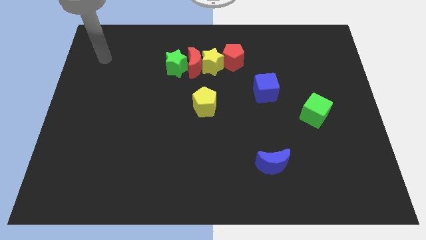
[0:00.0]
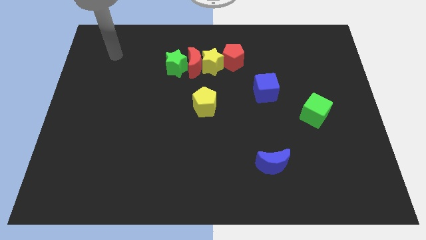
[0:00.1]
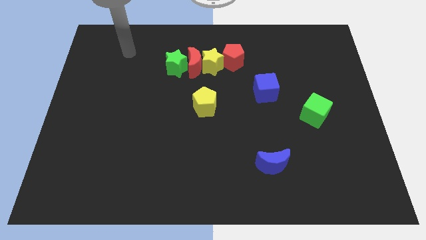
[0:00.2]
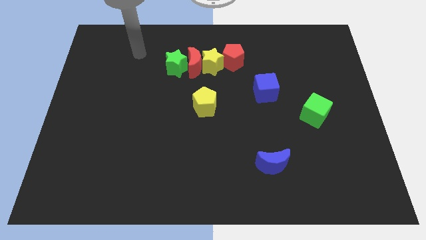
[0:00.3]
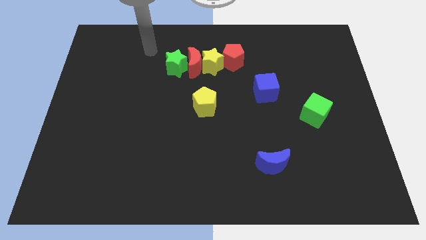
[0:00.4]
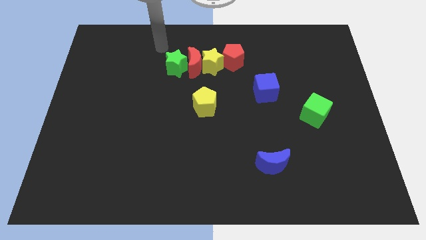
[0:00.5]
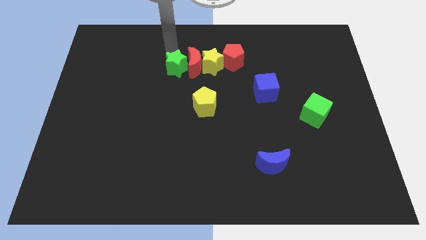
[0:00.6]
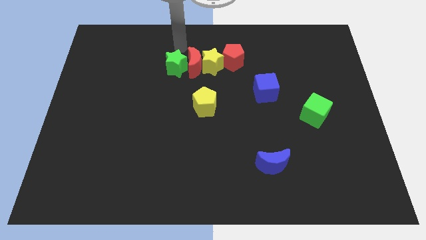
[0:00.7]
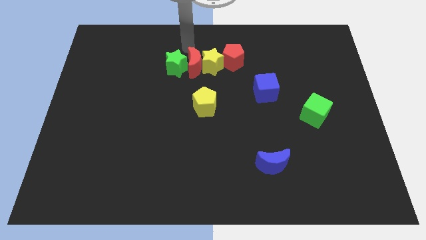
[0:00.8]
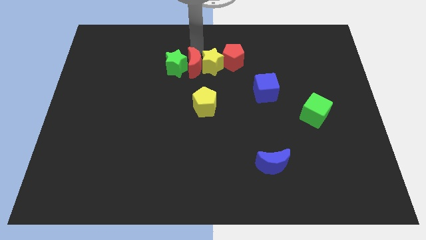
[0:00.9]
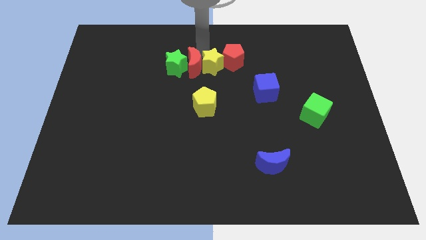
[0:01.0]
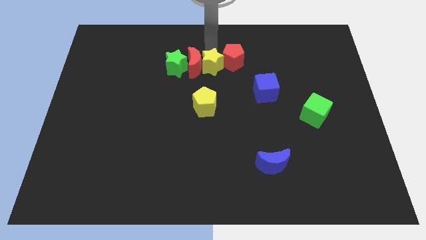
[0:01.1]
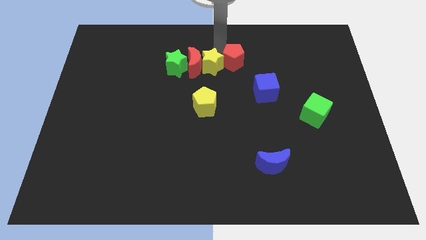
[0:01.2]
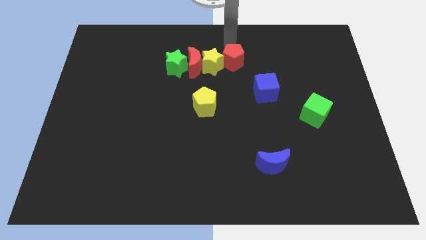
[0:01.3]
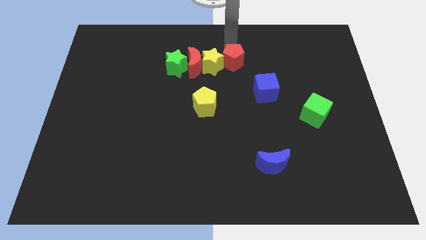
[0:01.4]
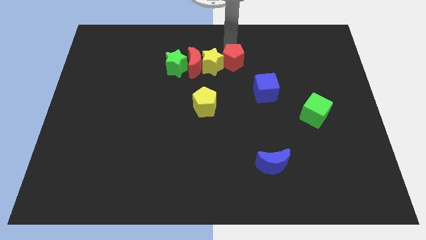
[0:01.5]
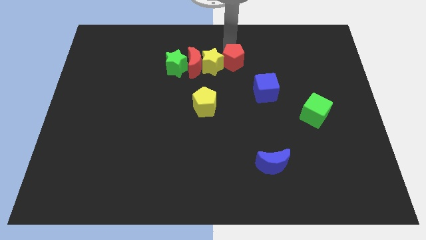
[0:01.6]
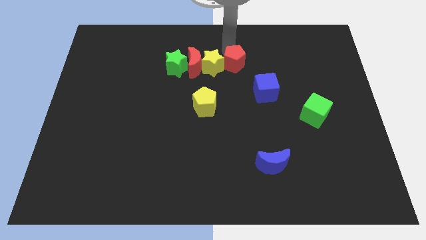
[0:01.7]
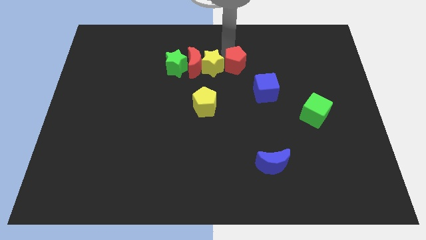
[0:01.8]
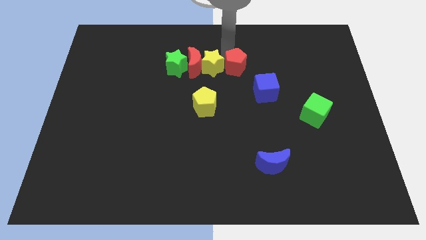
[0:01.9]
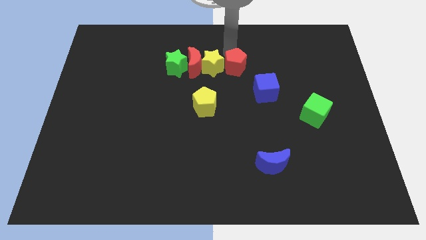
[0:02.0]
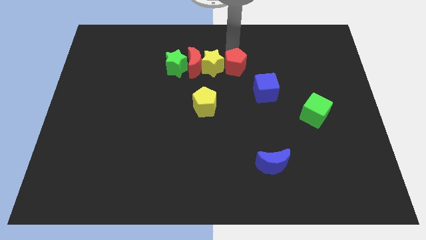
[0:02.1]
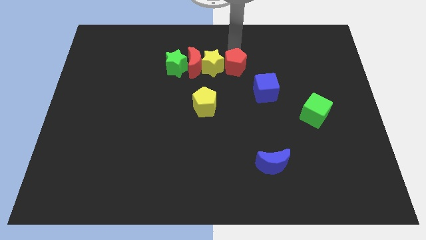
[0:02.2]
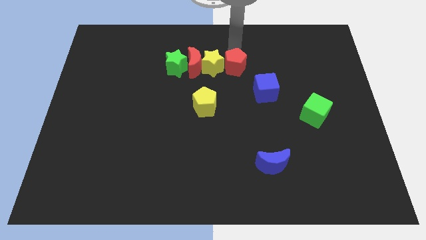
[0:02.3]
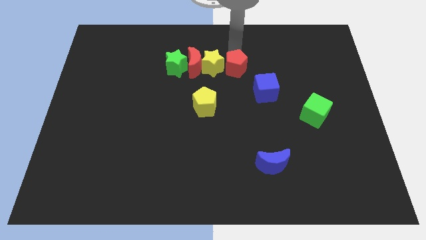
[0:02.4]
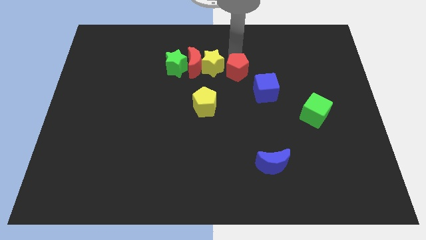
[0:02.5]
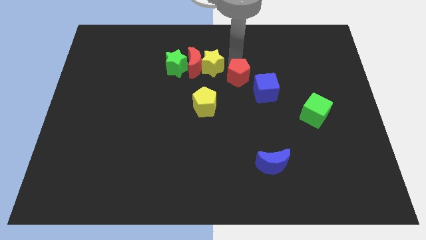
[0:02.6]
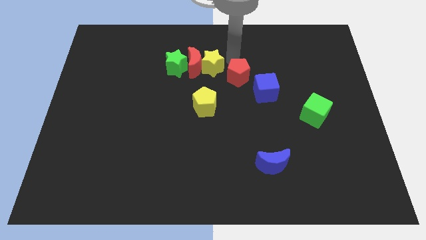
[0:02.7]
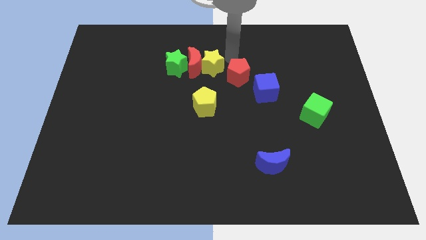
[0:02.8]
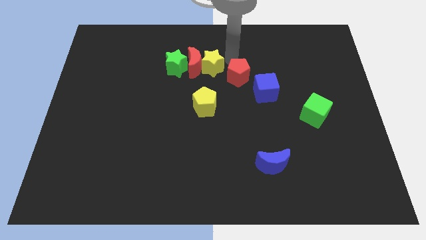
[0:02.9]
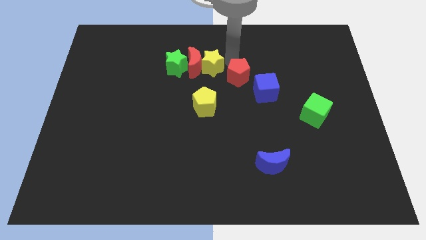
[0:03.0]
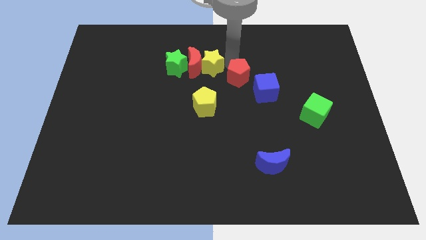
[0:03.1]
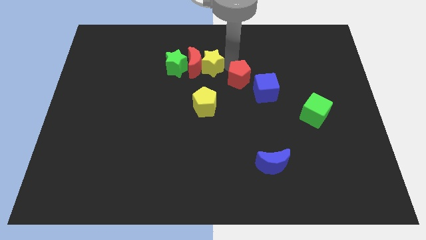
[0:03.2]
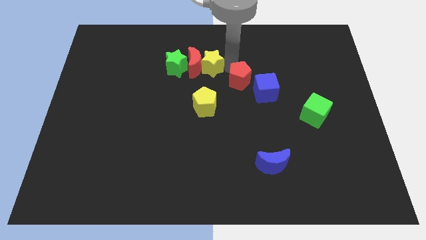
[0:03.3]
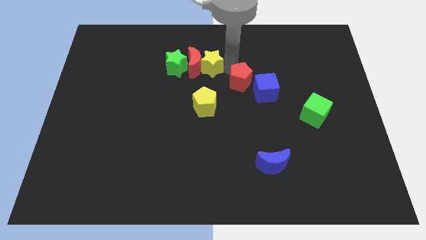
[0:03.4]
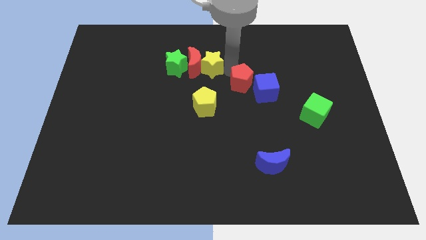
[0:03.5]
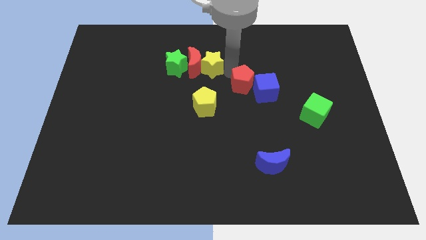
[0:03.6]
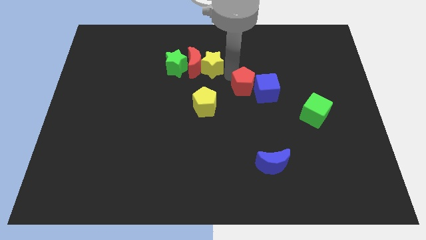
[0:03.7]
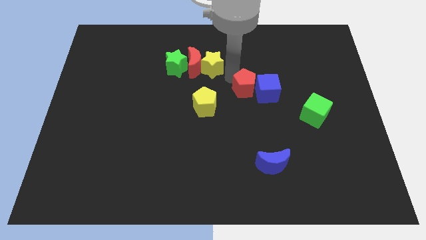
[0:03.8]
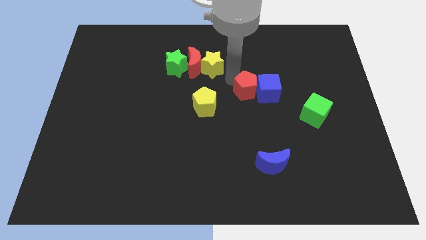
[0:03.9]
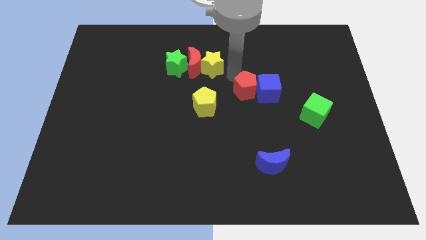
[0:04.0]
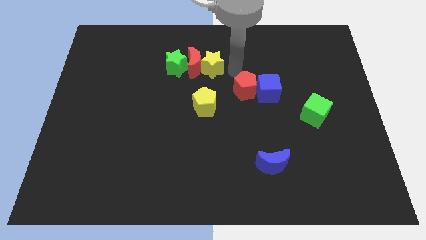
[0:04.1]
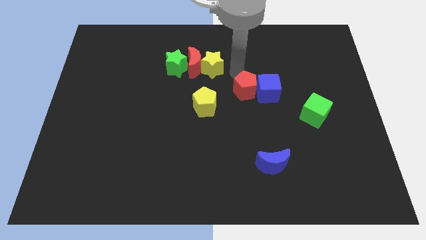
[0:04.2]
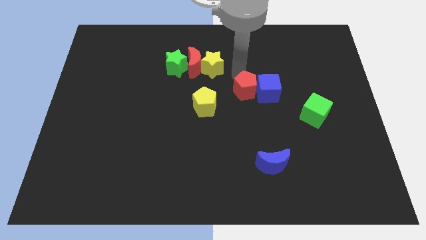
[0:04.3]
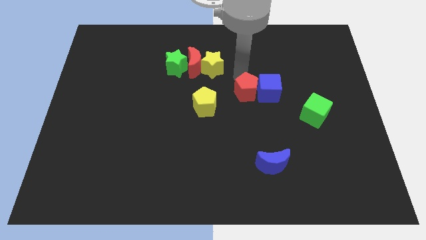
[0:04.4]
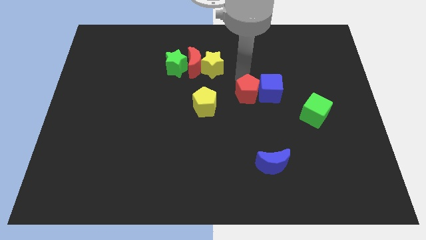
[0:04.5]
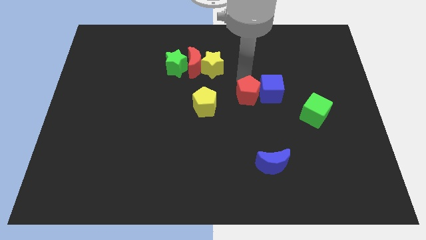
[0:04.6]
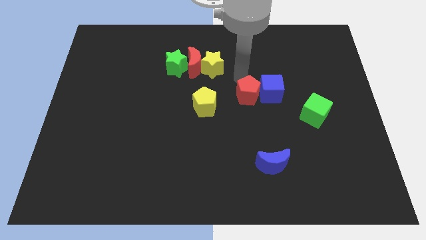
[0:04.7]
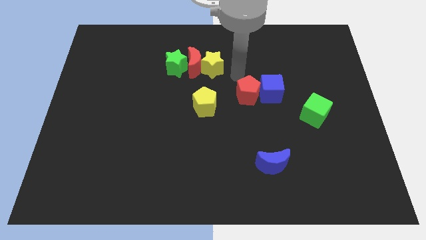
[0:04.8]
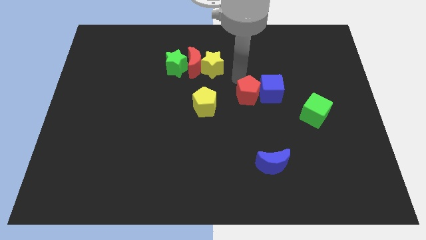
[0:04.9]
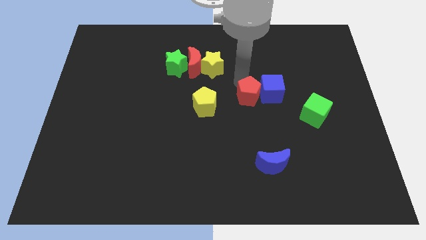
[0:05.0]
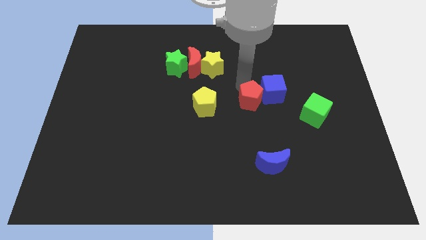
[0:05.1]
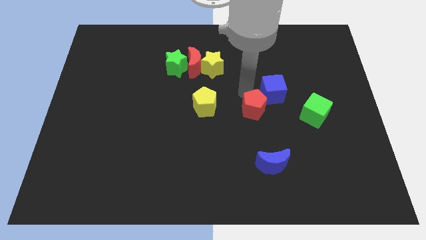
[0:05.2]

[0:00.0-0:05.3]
slide the red pentagon to the top of the blue moon

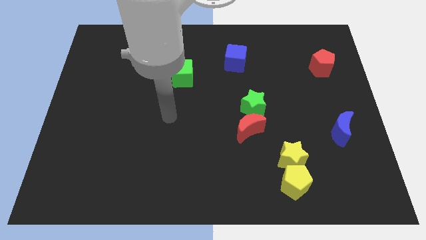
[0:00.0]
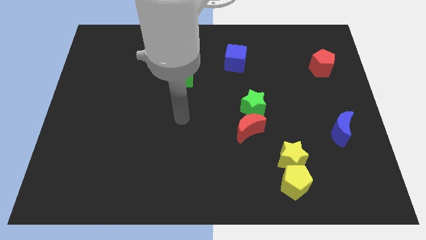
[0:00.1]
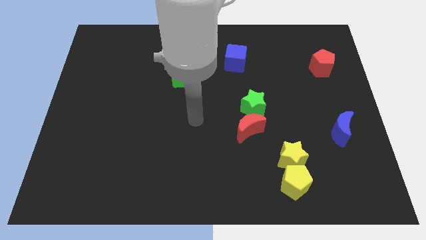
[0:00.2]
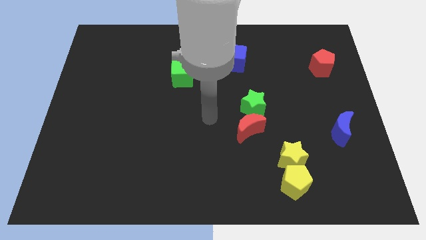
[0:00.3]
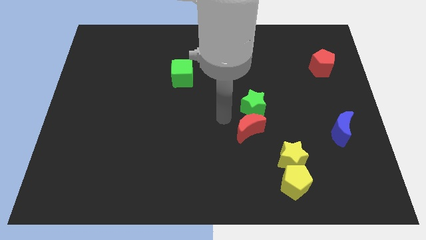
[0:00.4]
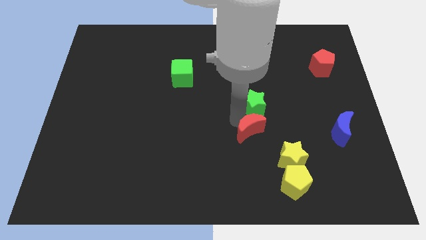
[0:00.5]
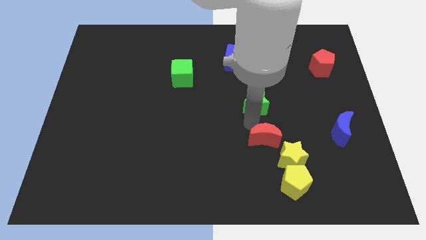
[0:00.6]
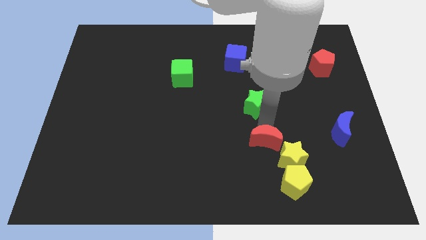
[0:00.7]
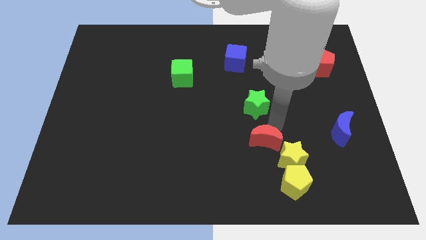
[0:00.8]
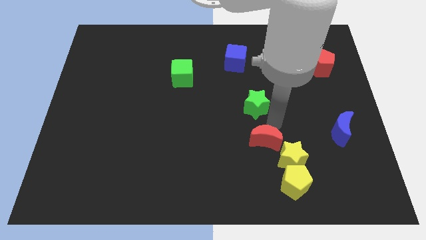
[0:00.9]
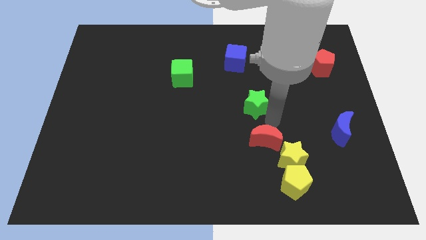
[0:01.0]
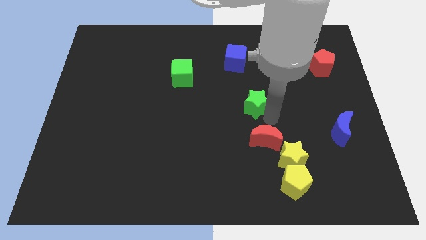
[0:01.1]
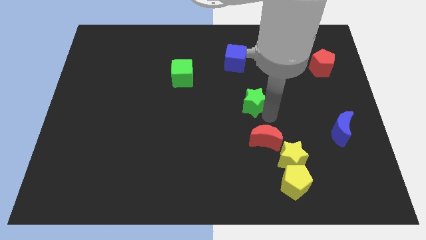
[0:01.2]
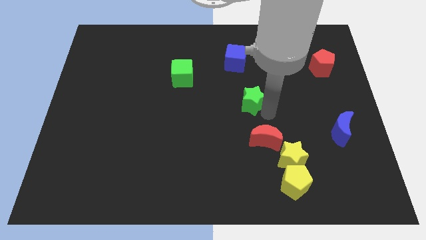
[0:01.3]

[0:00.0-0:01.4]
move the green star to the bottom side of the blue cube

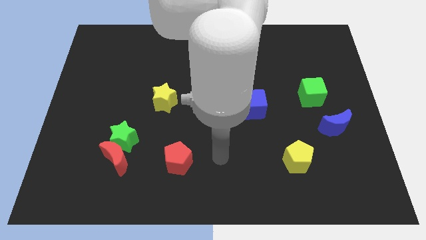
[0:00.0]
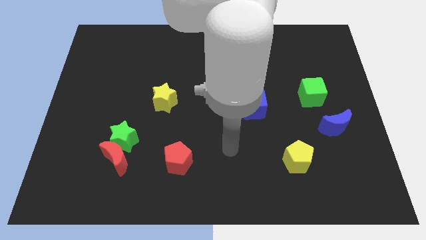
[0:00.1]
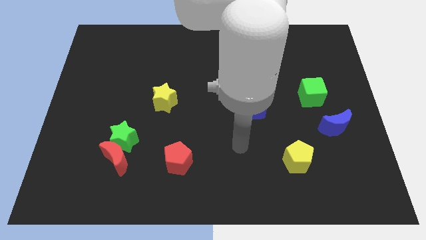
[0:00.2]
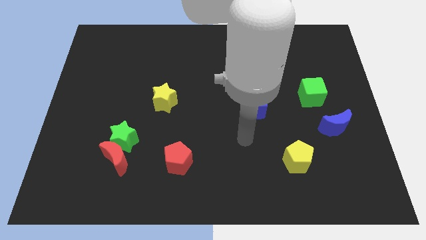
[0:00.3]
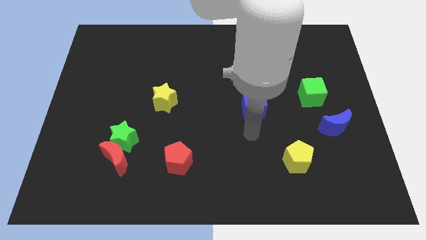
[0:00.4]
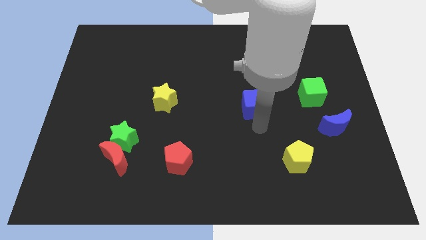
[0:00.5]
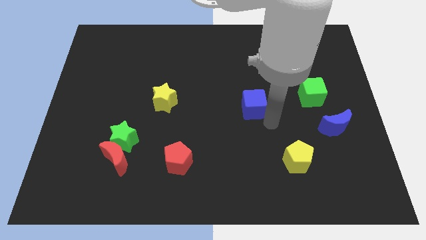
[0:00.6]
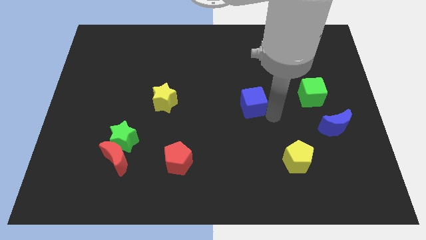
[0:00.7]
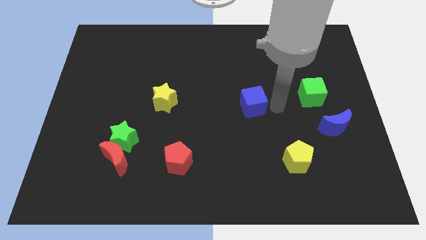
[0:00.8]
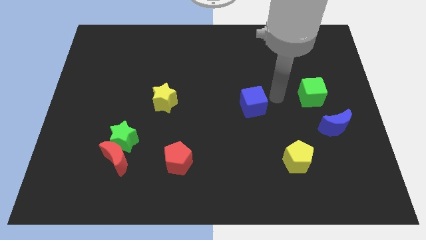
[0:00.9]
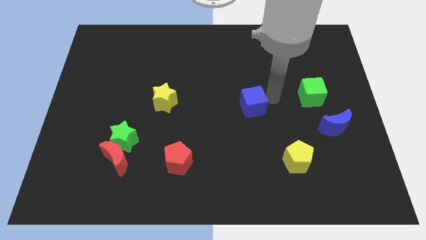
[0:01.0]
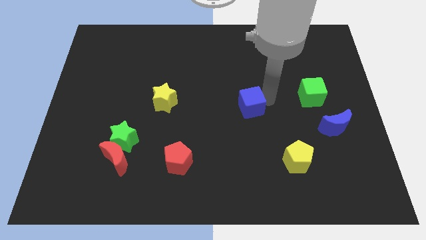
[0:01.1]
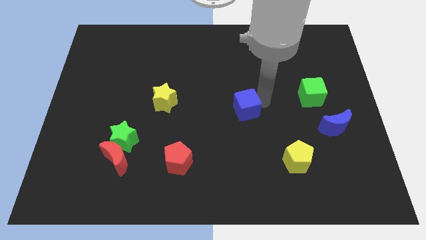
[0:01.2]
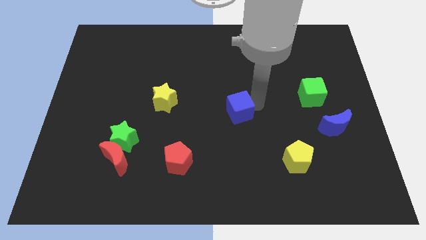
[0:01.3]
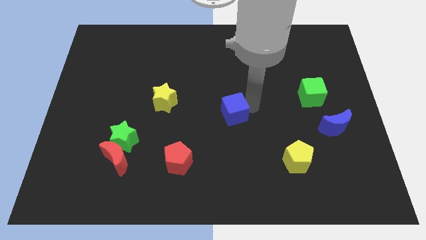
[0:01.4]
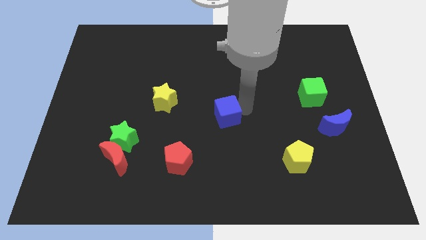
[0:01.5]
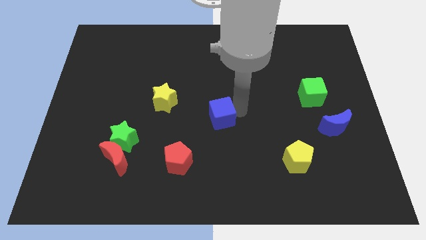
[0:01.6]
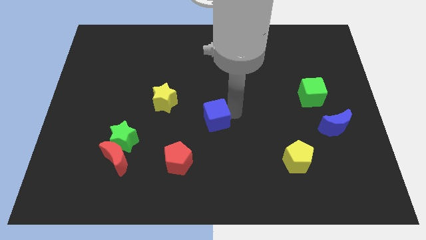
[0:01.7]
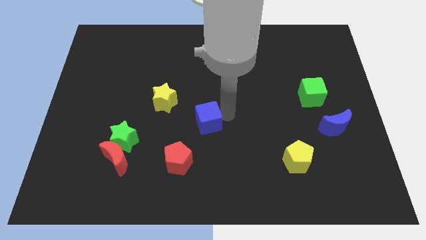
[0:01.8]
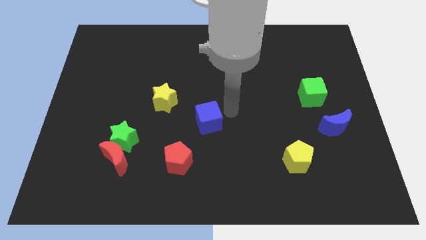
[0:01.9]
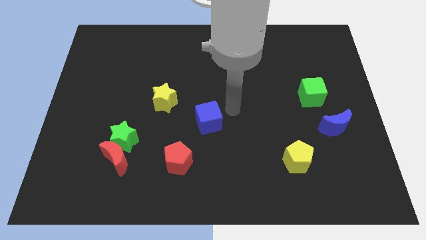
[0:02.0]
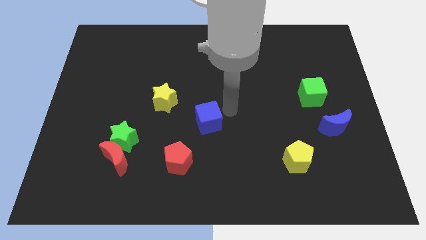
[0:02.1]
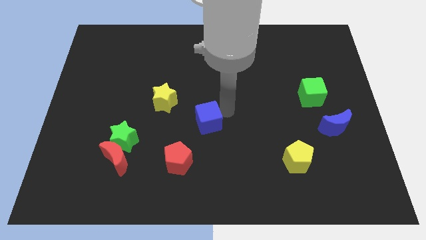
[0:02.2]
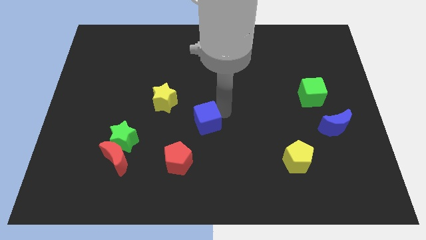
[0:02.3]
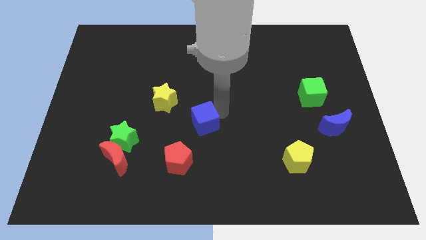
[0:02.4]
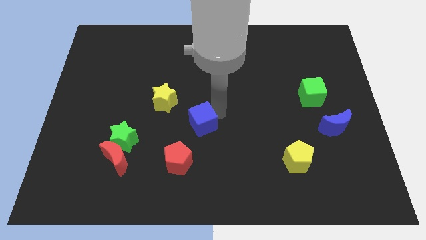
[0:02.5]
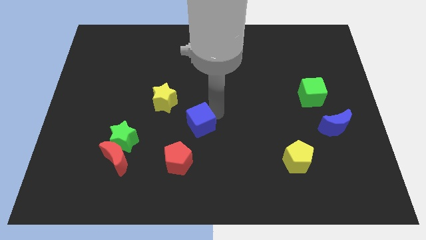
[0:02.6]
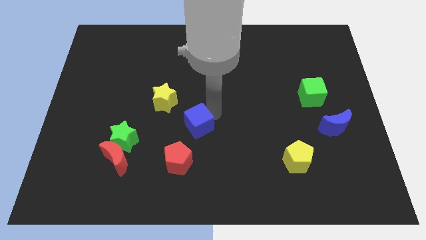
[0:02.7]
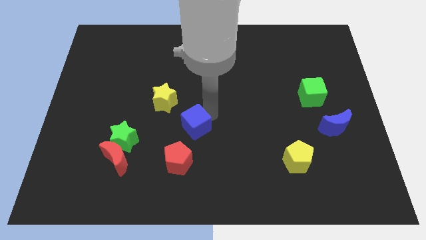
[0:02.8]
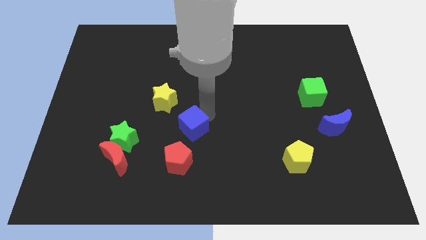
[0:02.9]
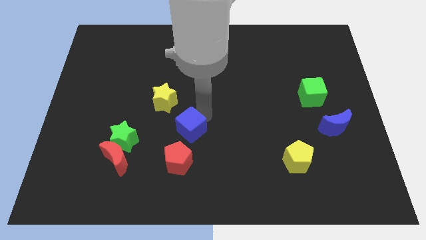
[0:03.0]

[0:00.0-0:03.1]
slide the blue cube to the right side of the green star
